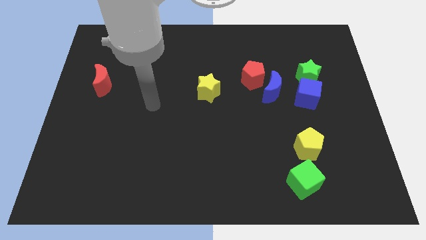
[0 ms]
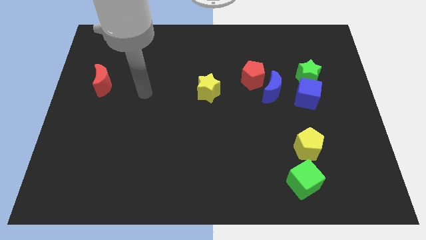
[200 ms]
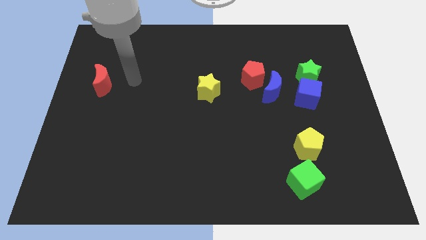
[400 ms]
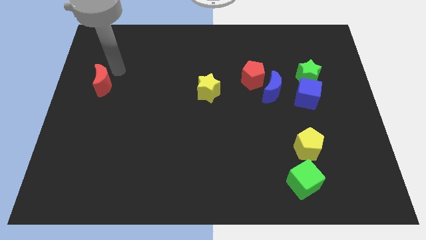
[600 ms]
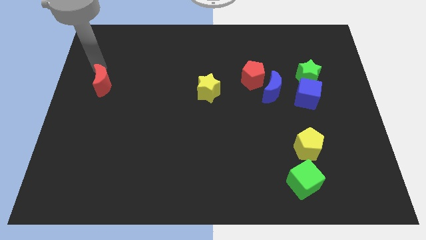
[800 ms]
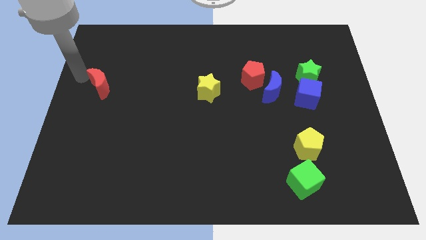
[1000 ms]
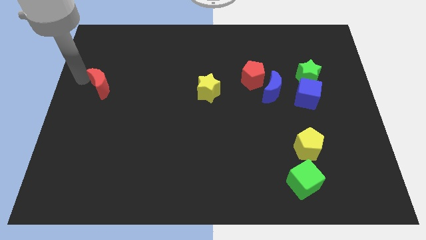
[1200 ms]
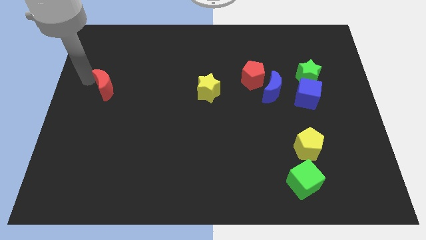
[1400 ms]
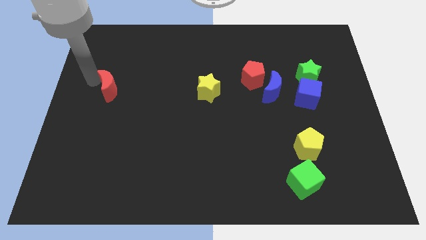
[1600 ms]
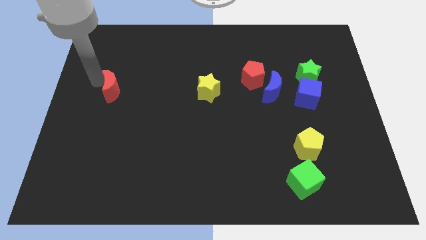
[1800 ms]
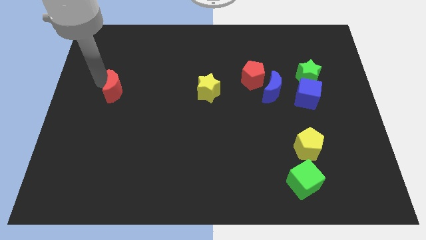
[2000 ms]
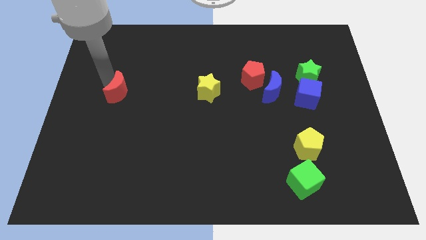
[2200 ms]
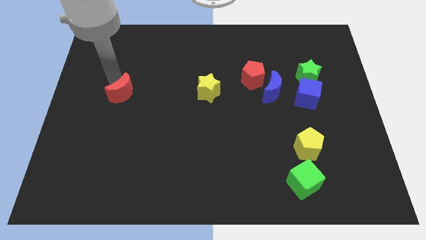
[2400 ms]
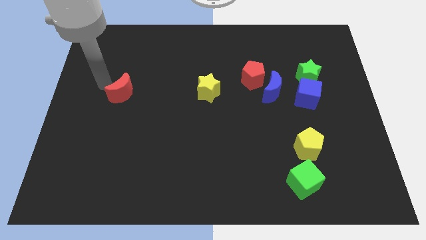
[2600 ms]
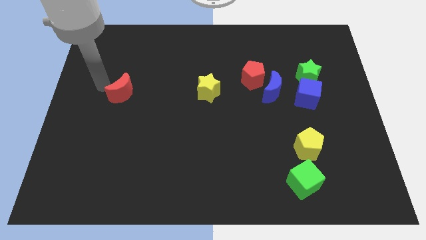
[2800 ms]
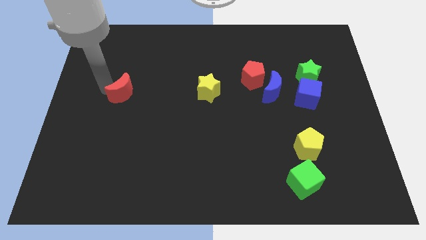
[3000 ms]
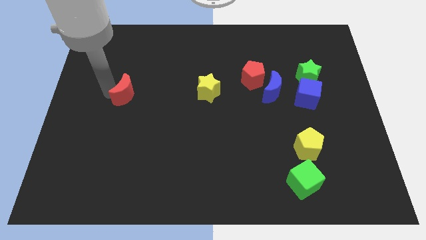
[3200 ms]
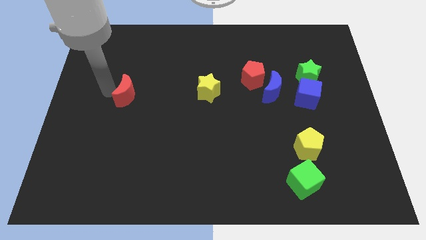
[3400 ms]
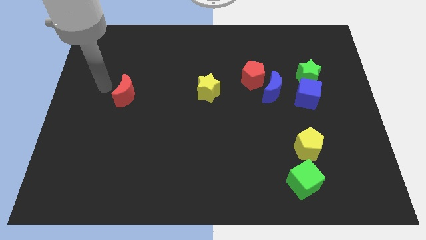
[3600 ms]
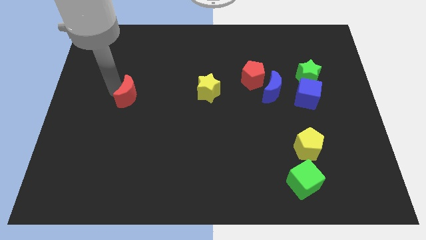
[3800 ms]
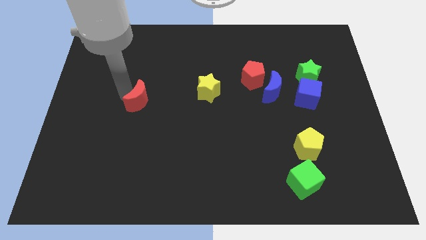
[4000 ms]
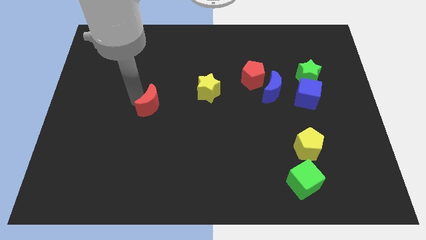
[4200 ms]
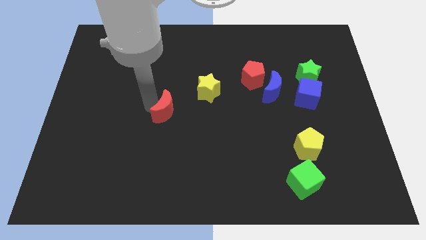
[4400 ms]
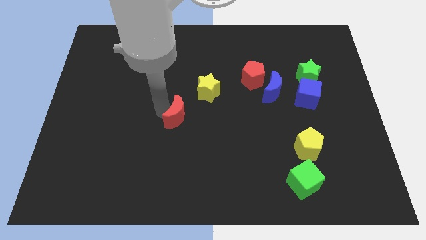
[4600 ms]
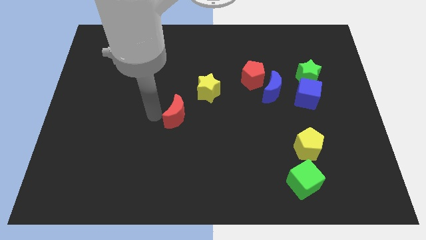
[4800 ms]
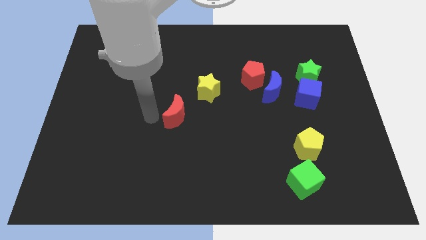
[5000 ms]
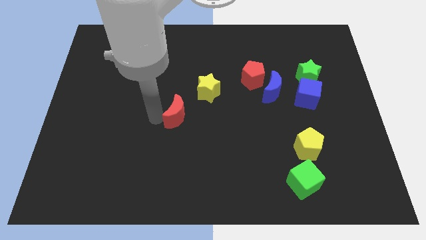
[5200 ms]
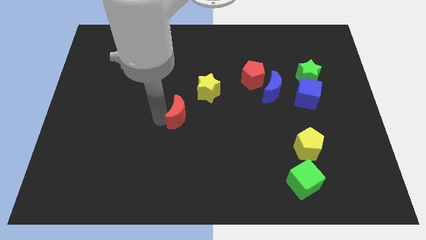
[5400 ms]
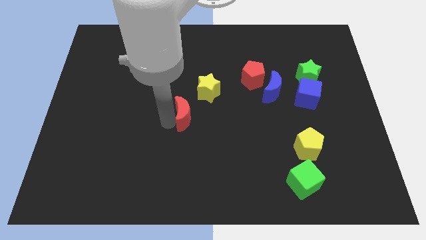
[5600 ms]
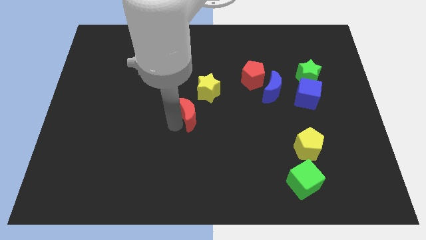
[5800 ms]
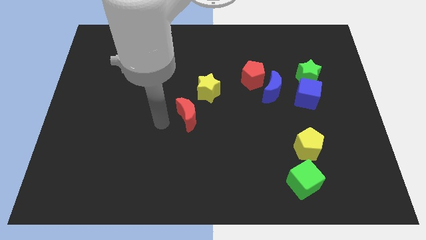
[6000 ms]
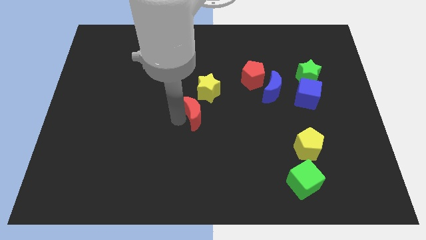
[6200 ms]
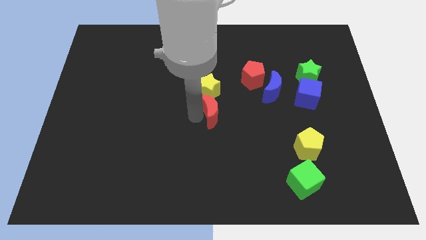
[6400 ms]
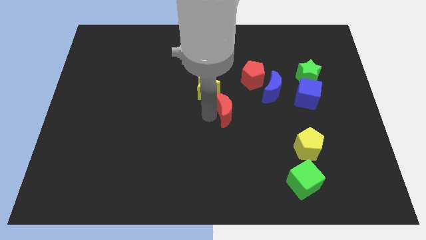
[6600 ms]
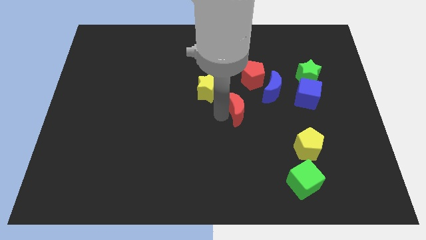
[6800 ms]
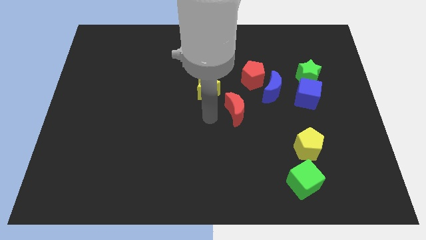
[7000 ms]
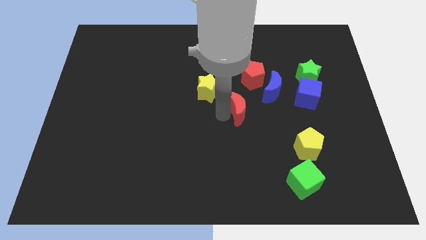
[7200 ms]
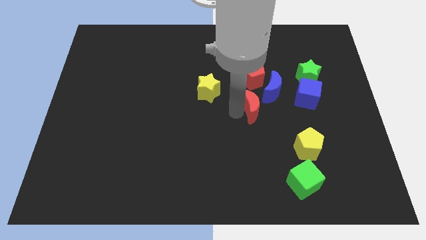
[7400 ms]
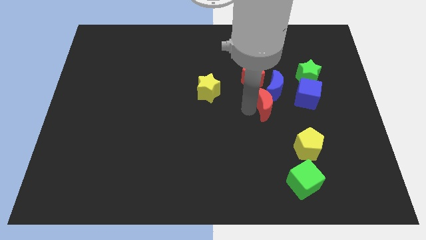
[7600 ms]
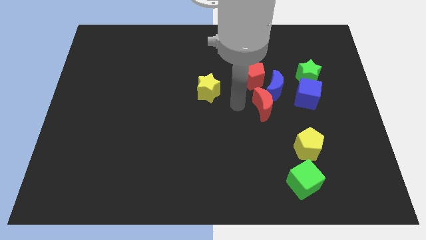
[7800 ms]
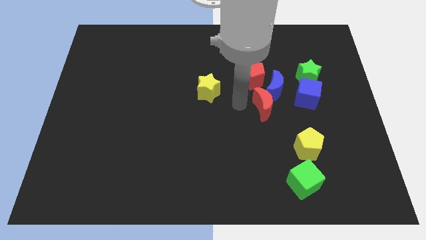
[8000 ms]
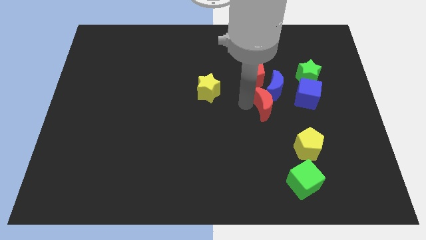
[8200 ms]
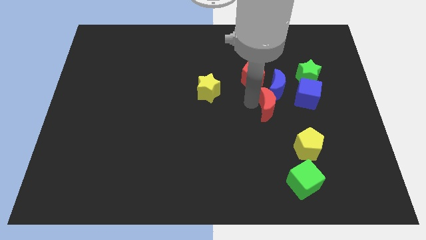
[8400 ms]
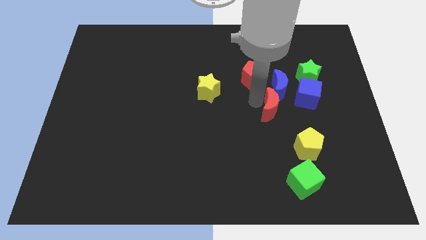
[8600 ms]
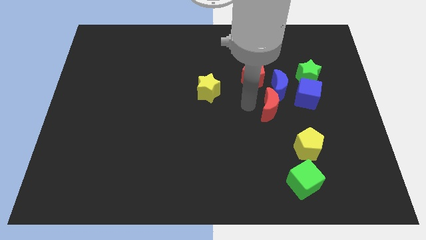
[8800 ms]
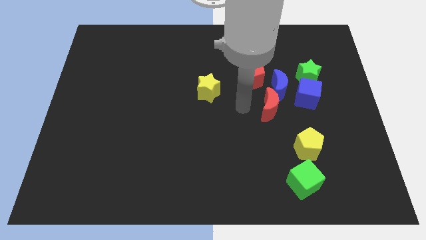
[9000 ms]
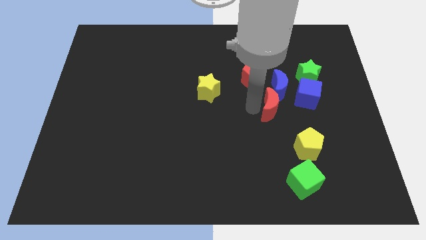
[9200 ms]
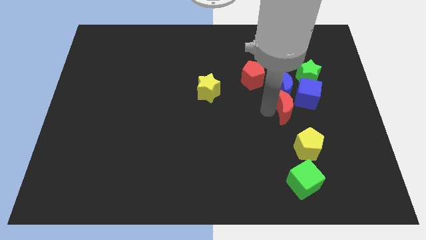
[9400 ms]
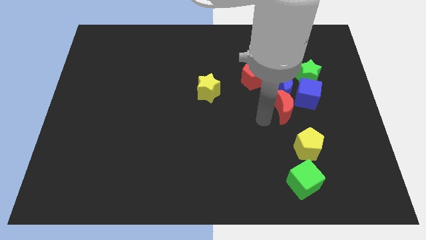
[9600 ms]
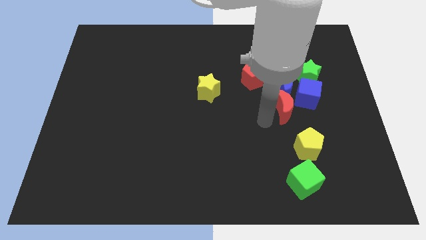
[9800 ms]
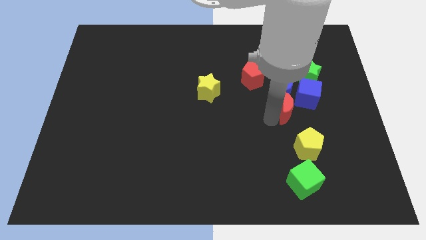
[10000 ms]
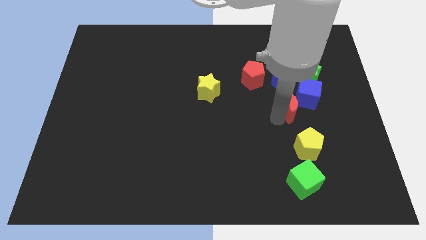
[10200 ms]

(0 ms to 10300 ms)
push the red moon to the blue cube
